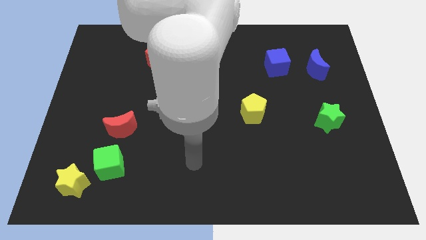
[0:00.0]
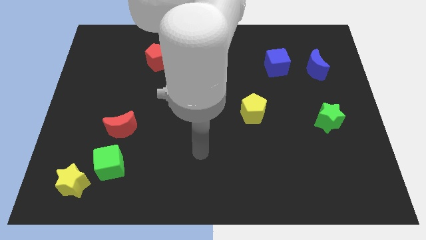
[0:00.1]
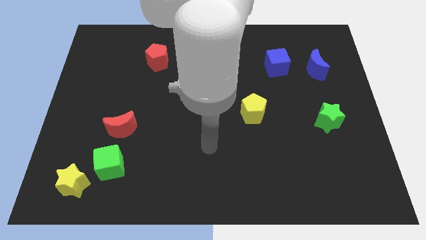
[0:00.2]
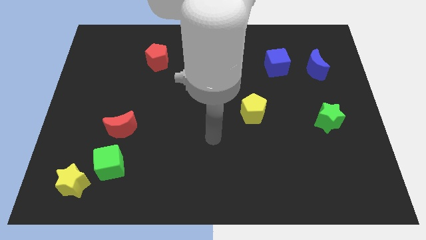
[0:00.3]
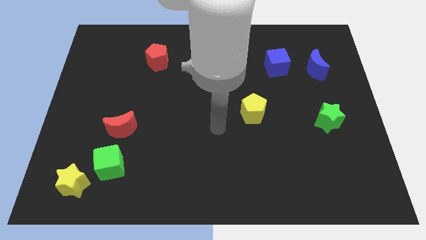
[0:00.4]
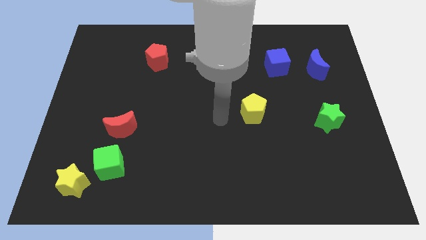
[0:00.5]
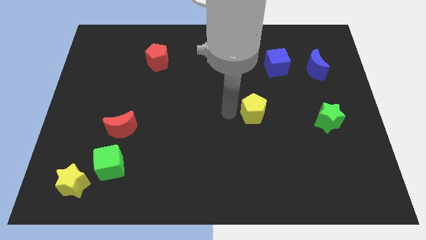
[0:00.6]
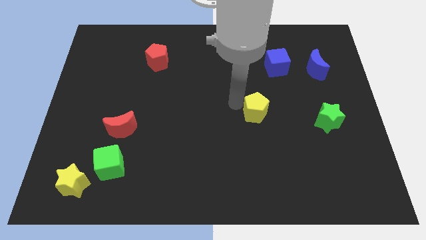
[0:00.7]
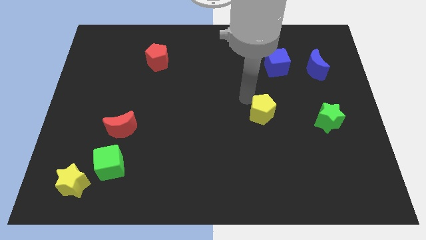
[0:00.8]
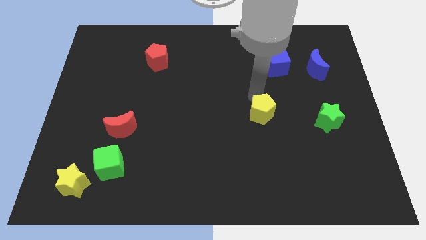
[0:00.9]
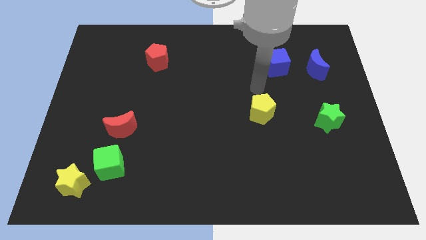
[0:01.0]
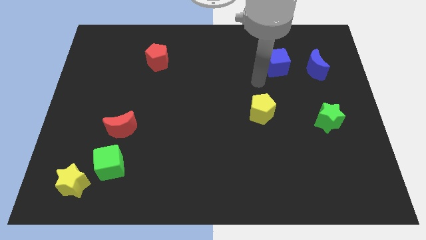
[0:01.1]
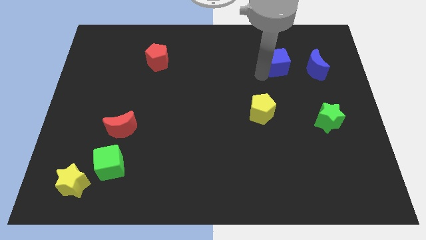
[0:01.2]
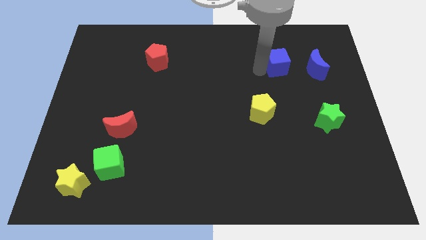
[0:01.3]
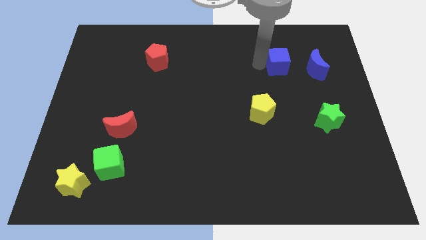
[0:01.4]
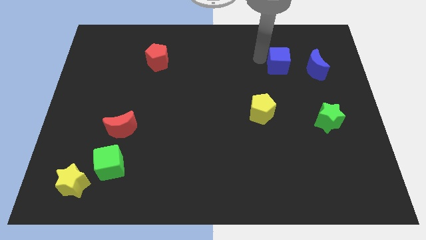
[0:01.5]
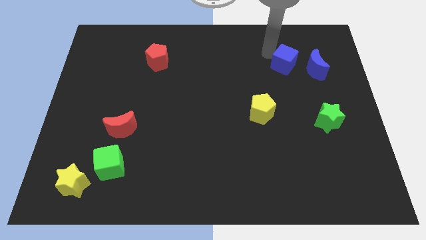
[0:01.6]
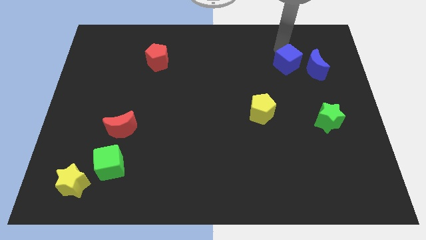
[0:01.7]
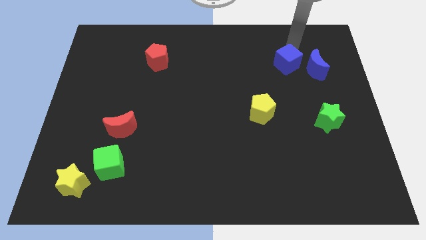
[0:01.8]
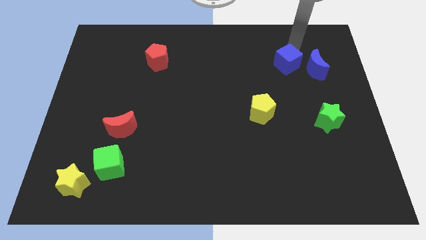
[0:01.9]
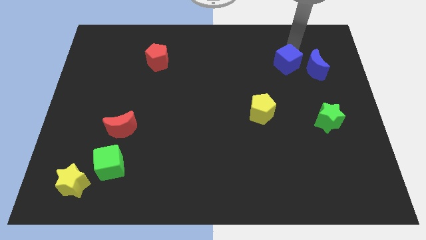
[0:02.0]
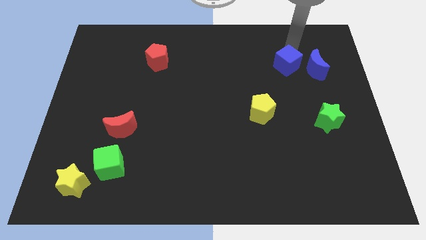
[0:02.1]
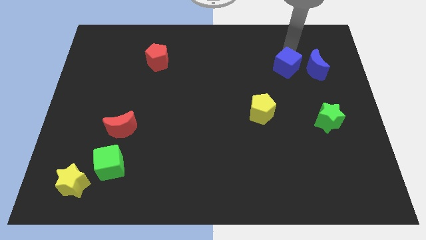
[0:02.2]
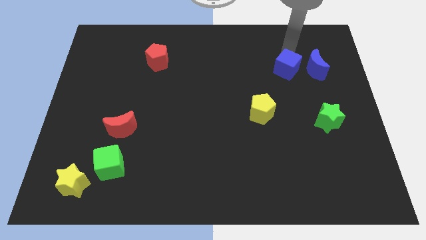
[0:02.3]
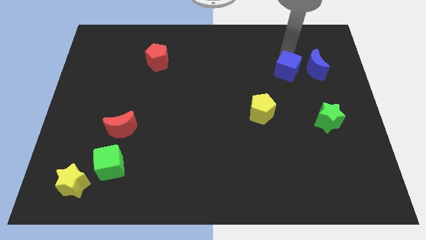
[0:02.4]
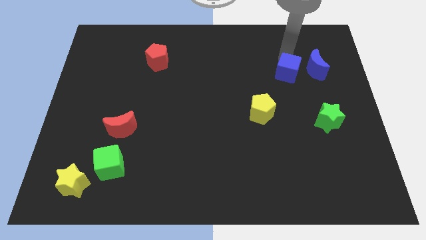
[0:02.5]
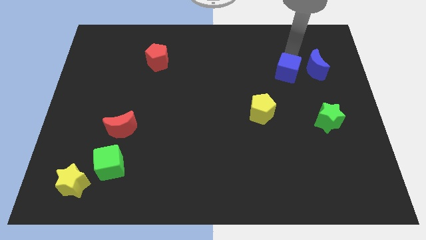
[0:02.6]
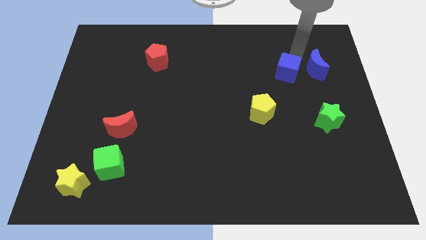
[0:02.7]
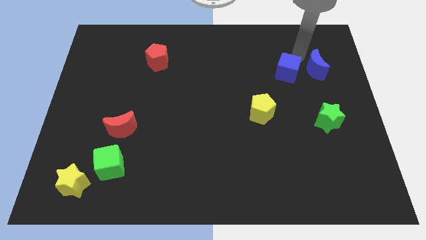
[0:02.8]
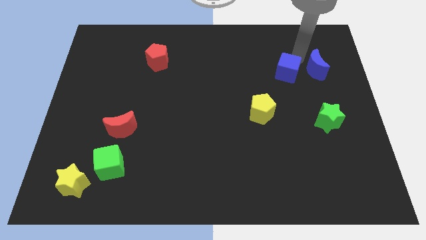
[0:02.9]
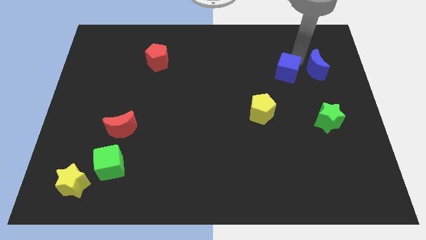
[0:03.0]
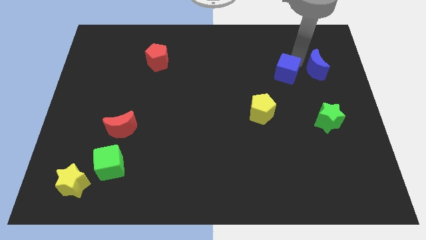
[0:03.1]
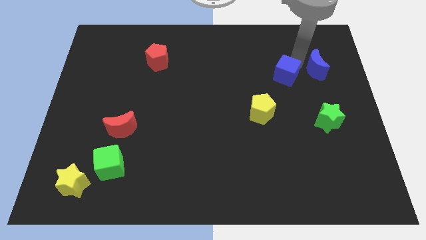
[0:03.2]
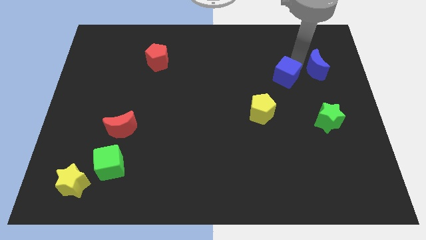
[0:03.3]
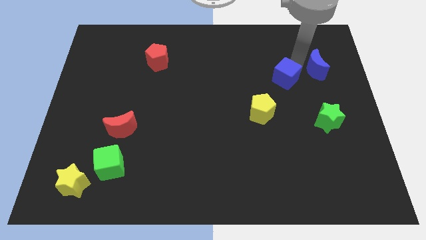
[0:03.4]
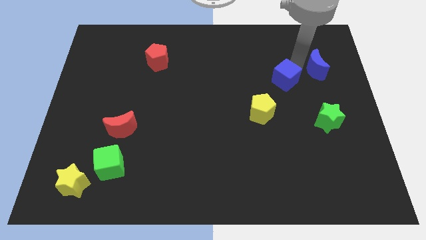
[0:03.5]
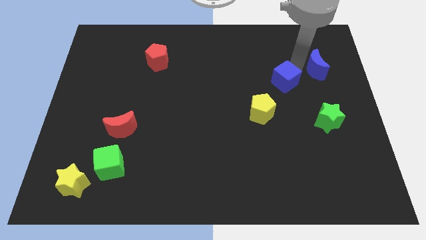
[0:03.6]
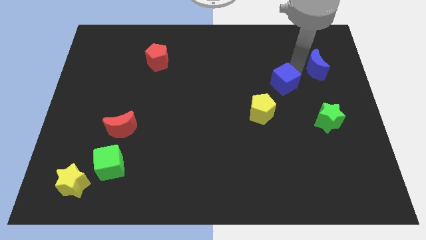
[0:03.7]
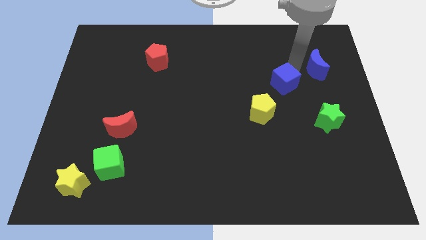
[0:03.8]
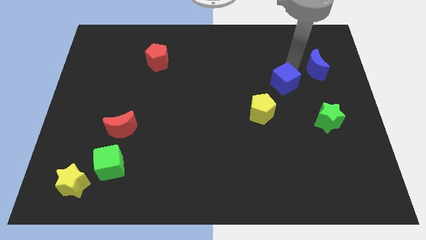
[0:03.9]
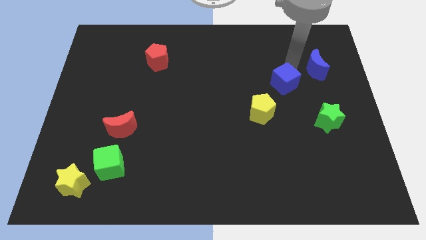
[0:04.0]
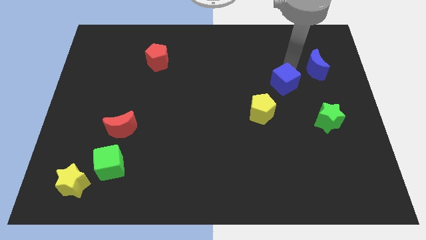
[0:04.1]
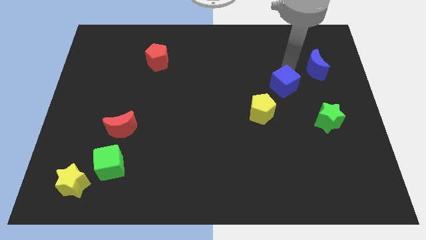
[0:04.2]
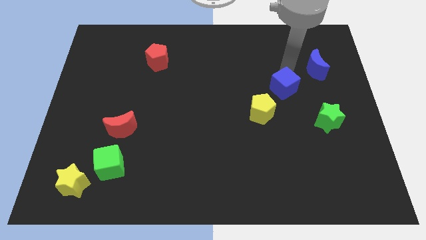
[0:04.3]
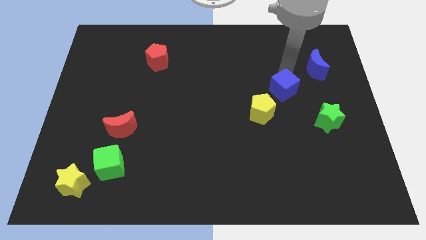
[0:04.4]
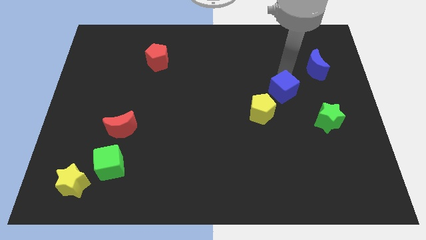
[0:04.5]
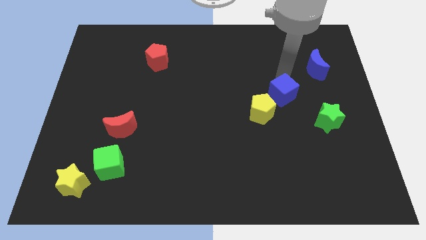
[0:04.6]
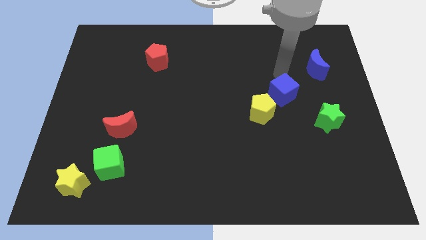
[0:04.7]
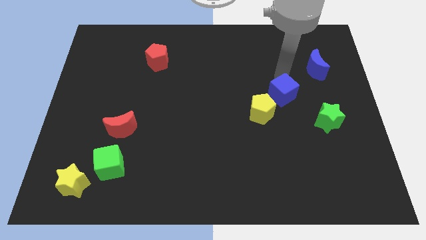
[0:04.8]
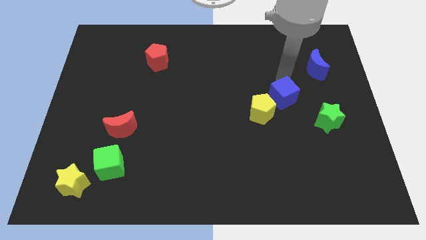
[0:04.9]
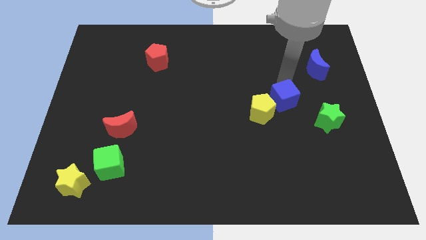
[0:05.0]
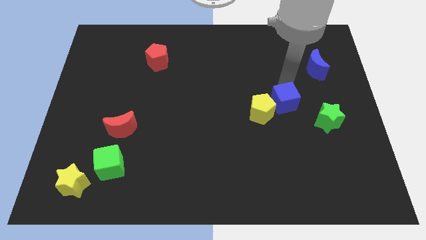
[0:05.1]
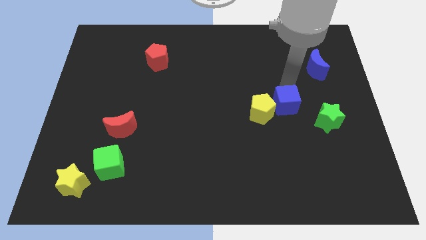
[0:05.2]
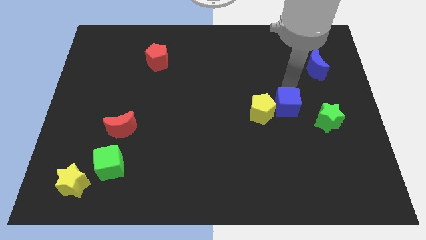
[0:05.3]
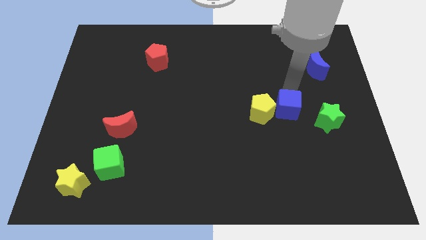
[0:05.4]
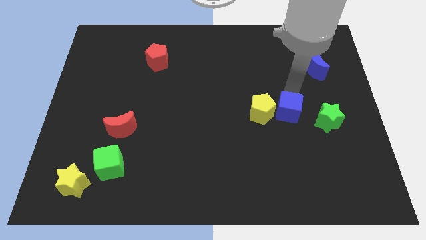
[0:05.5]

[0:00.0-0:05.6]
slide the blue cube diagonally down and to the right of the yellow pentagon

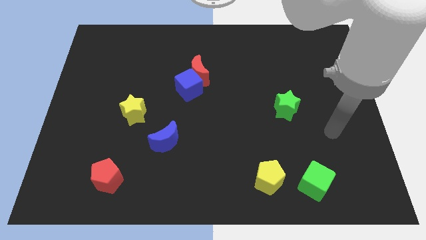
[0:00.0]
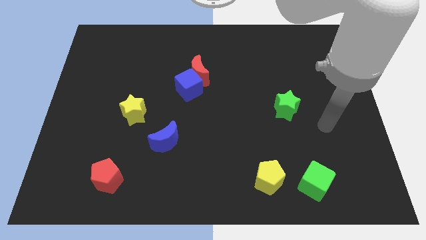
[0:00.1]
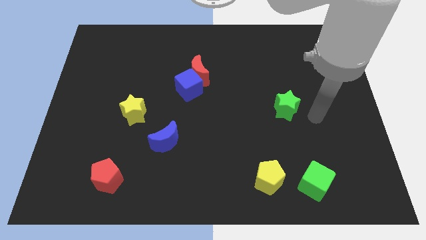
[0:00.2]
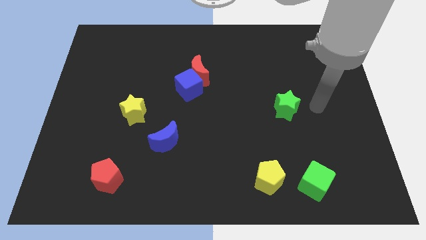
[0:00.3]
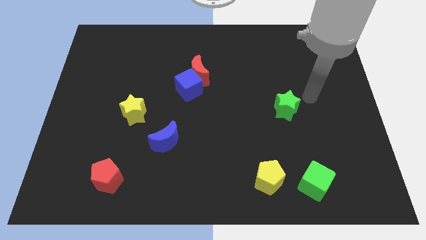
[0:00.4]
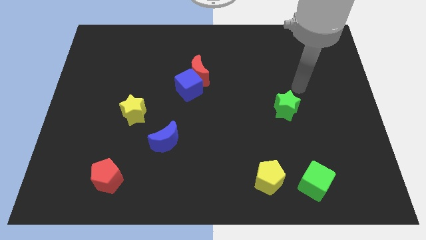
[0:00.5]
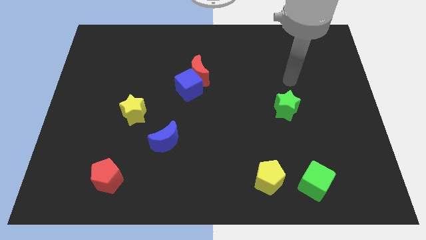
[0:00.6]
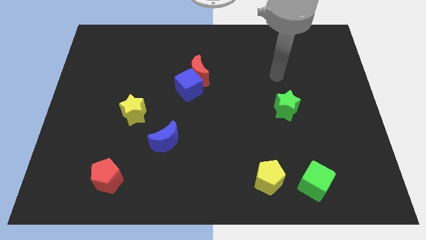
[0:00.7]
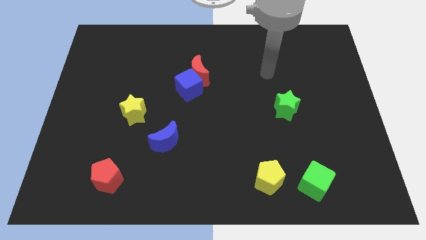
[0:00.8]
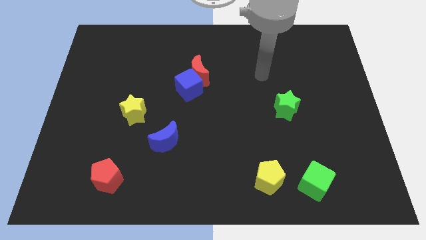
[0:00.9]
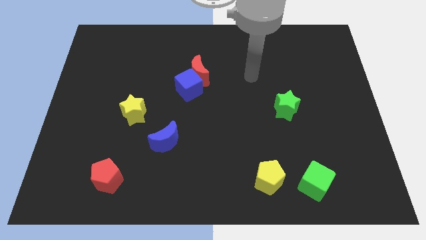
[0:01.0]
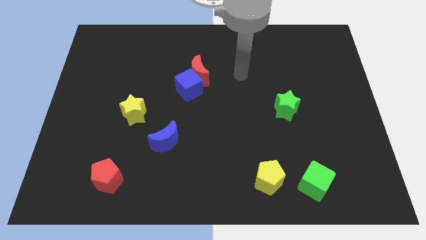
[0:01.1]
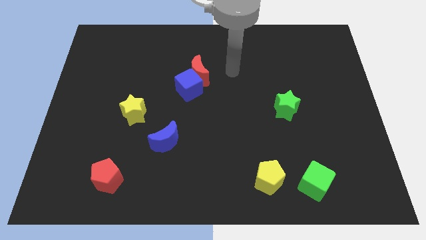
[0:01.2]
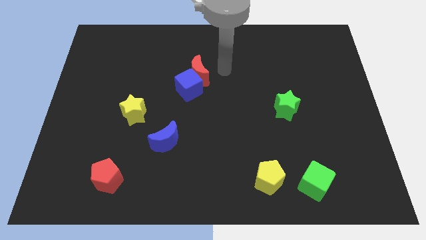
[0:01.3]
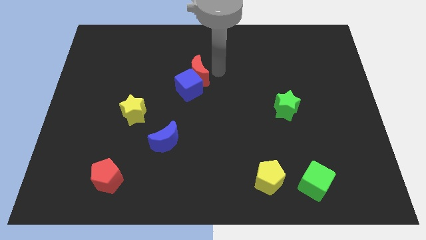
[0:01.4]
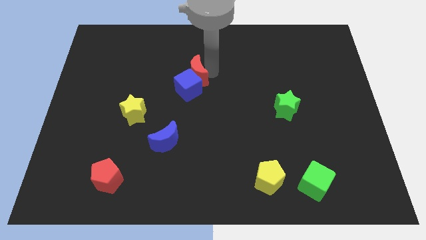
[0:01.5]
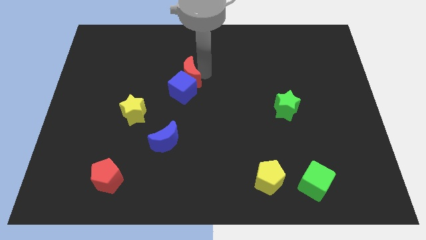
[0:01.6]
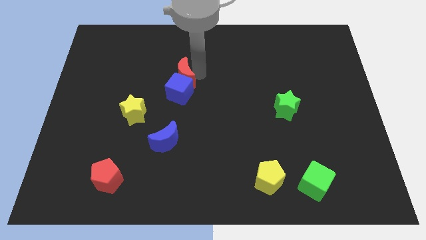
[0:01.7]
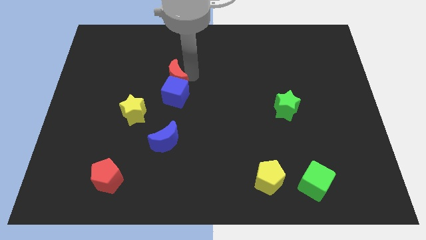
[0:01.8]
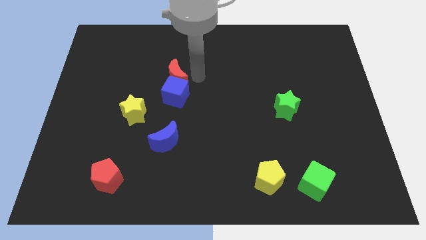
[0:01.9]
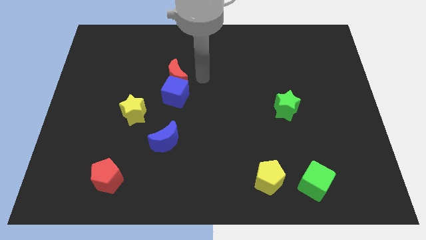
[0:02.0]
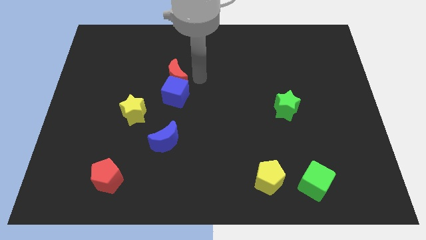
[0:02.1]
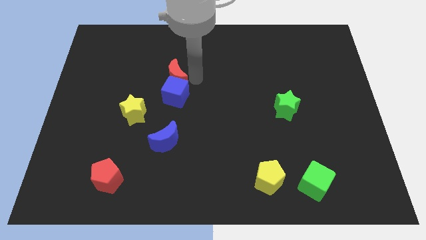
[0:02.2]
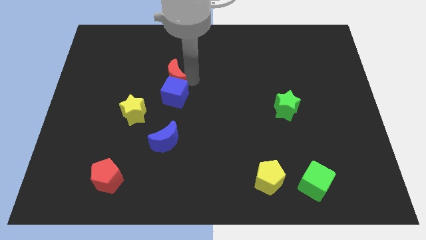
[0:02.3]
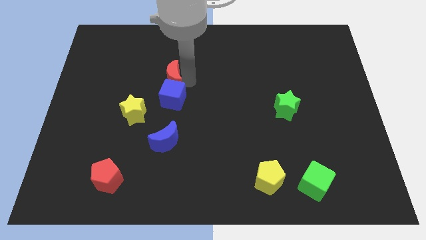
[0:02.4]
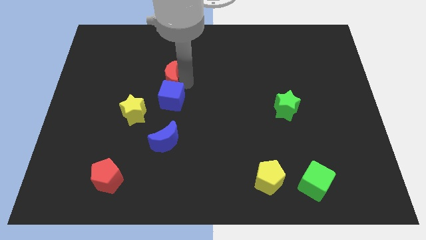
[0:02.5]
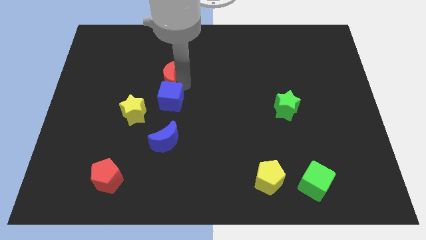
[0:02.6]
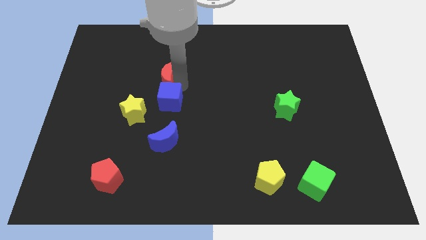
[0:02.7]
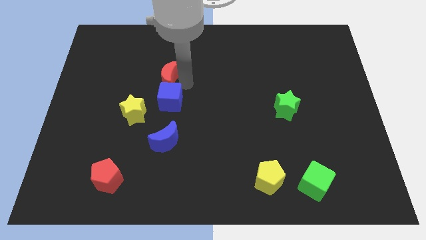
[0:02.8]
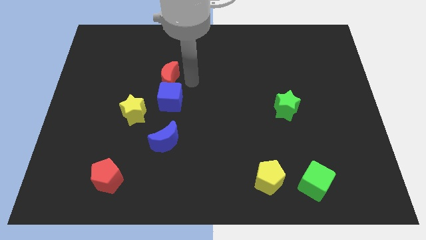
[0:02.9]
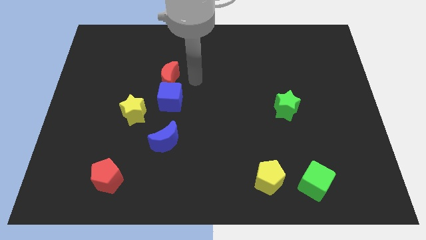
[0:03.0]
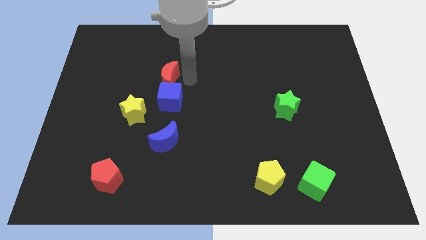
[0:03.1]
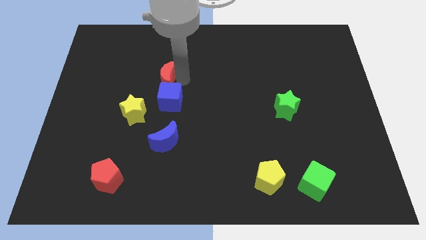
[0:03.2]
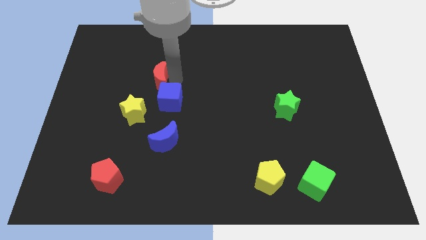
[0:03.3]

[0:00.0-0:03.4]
put the red moon to the top of the yellow star
